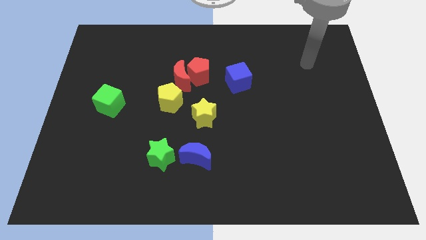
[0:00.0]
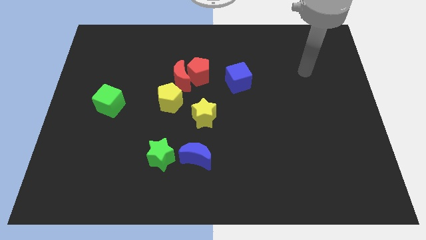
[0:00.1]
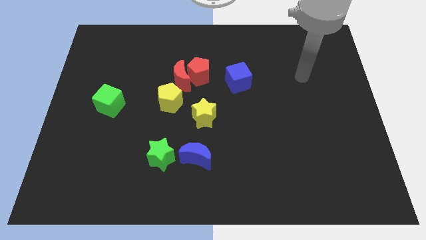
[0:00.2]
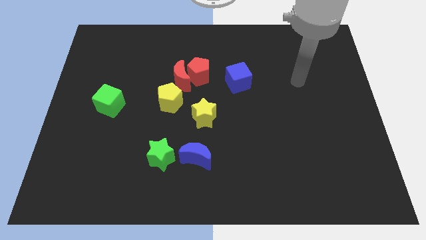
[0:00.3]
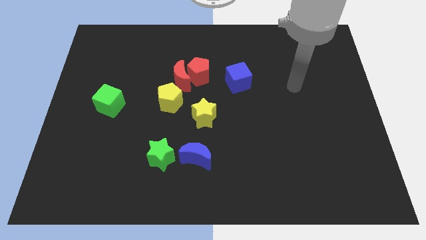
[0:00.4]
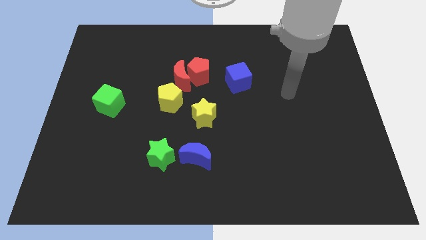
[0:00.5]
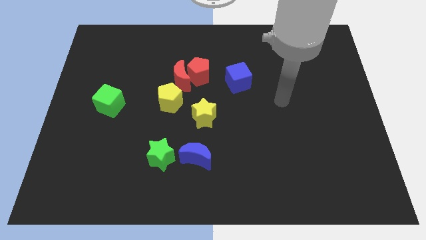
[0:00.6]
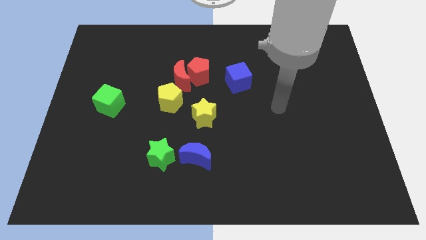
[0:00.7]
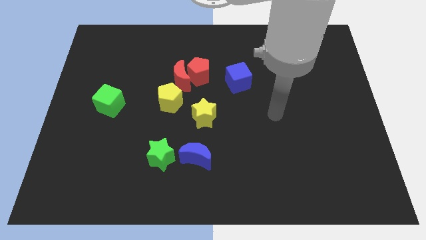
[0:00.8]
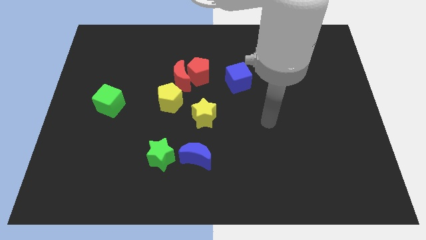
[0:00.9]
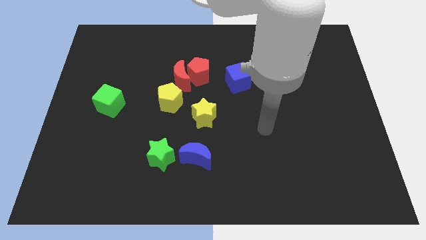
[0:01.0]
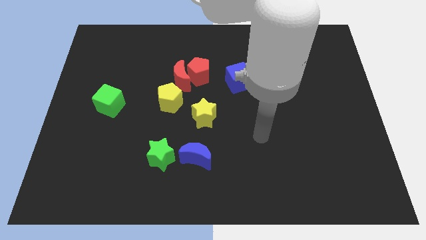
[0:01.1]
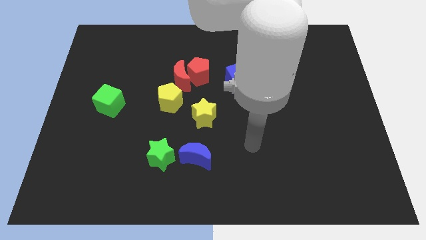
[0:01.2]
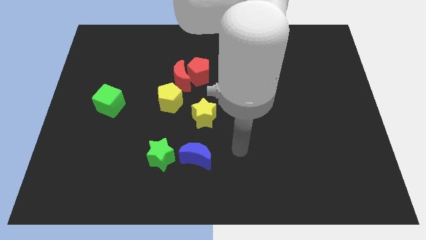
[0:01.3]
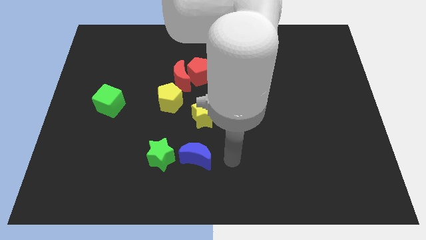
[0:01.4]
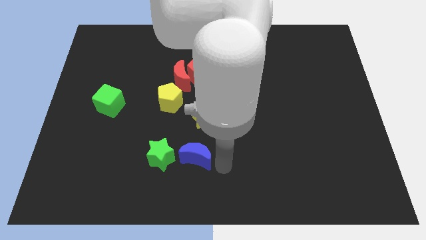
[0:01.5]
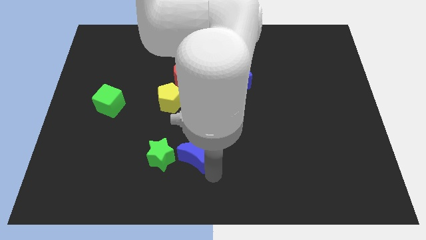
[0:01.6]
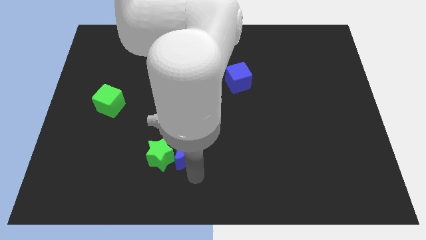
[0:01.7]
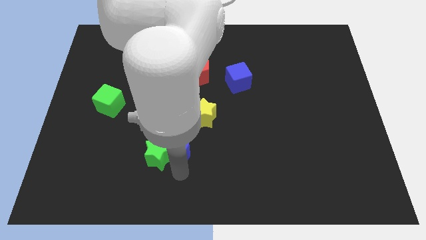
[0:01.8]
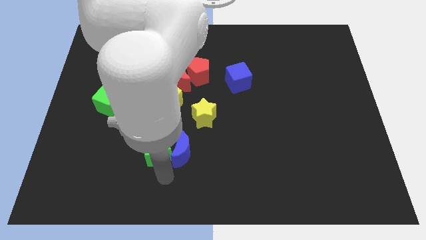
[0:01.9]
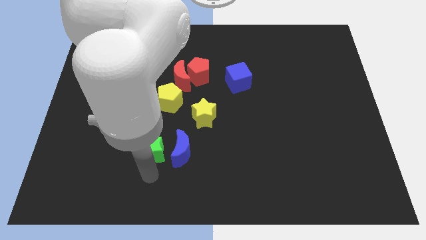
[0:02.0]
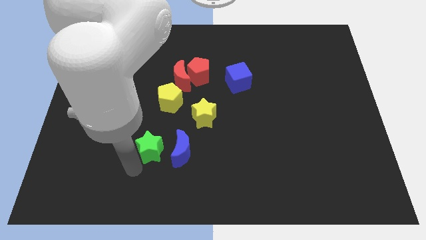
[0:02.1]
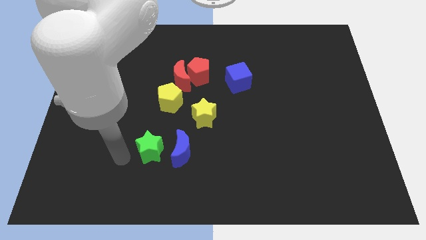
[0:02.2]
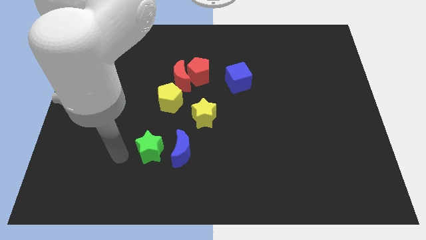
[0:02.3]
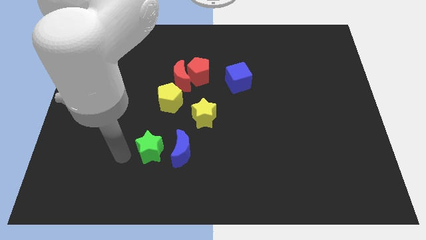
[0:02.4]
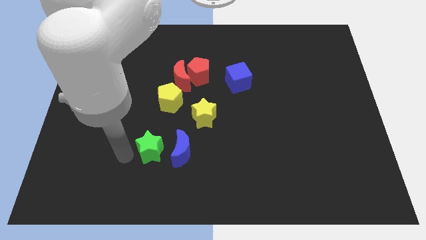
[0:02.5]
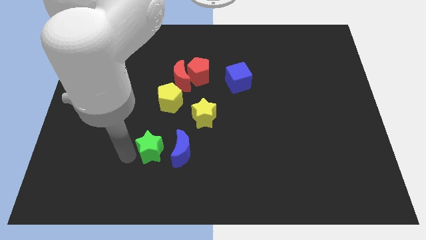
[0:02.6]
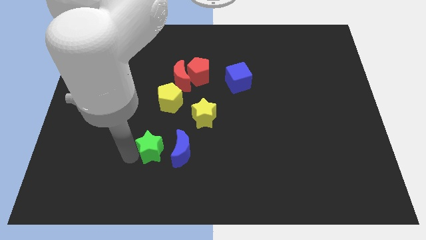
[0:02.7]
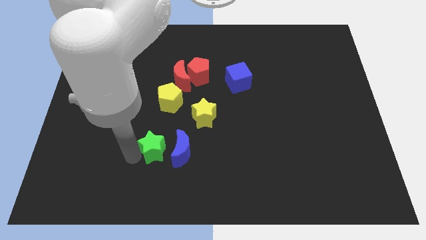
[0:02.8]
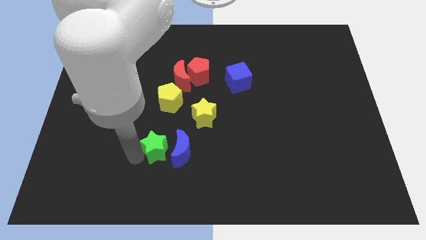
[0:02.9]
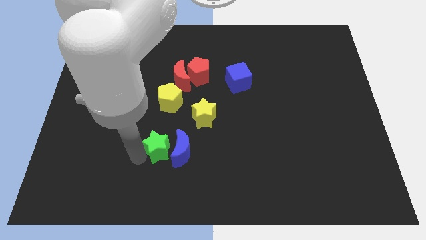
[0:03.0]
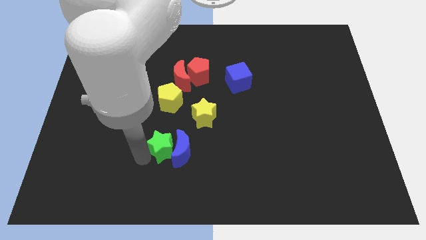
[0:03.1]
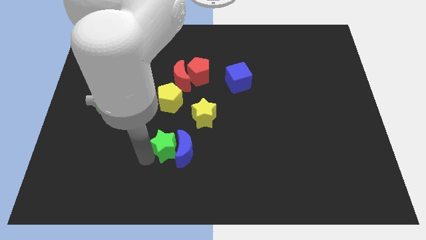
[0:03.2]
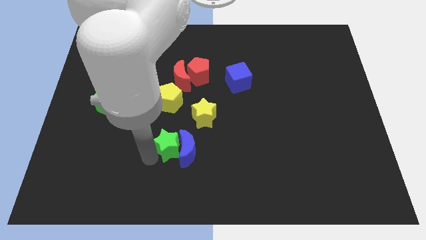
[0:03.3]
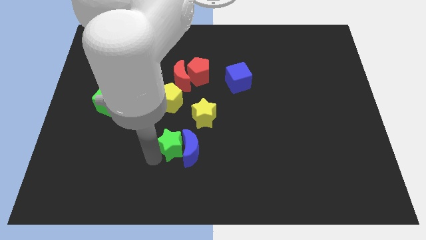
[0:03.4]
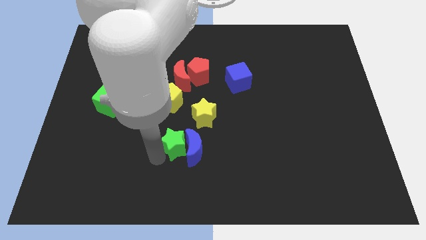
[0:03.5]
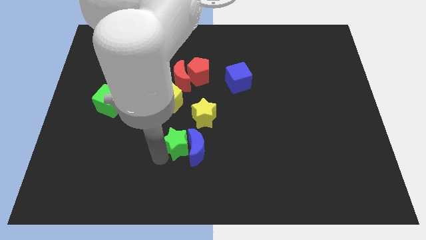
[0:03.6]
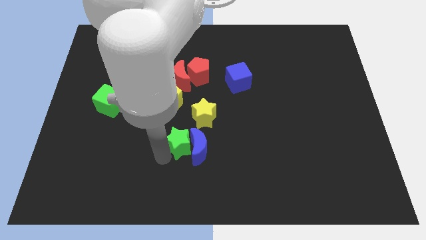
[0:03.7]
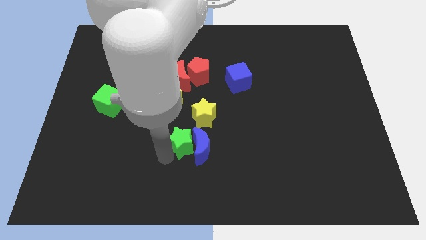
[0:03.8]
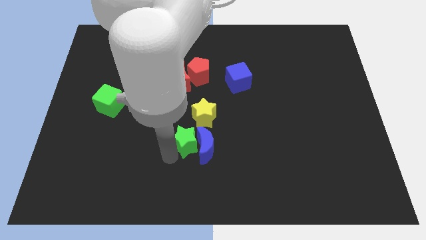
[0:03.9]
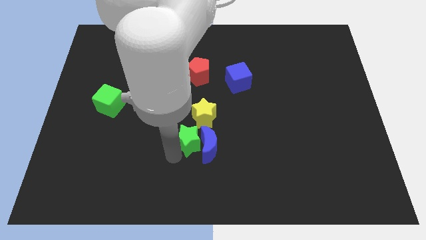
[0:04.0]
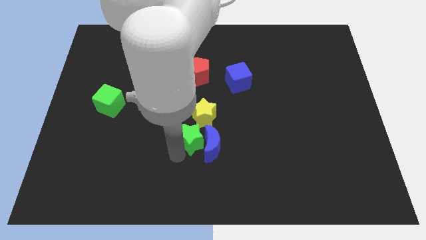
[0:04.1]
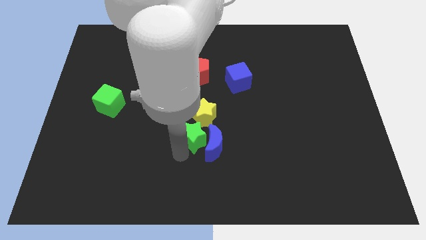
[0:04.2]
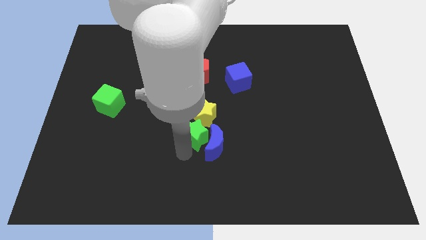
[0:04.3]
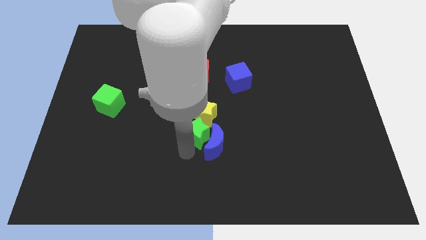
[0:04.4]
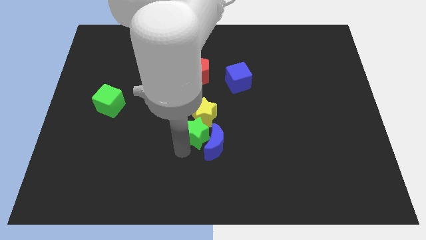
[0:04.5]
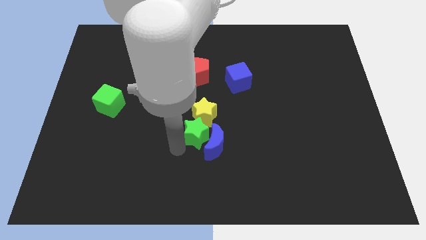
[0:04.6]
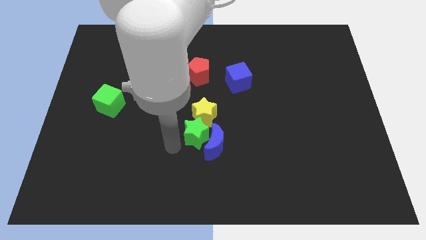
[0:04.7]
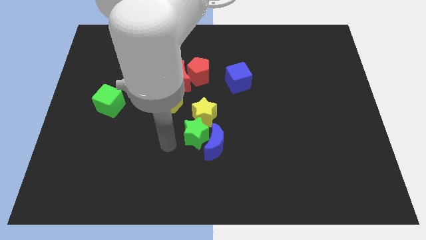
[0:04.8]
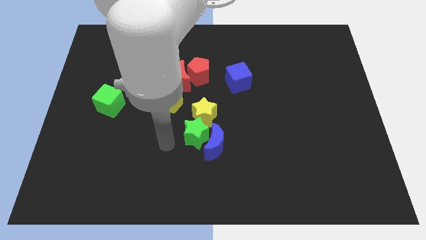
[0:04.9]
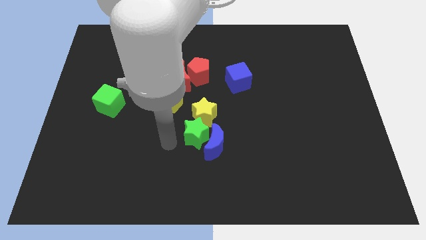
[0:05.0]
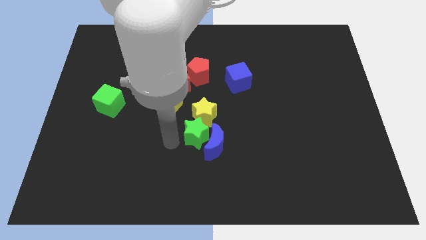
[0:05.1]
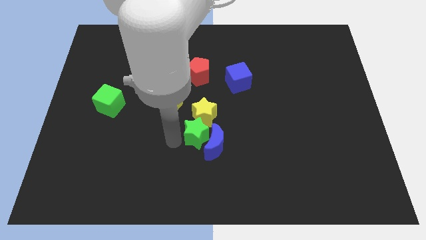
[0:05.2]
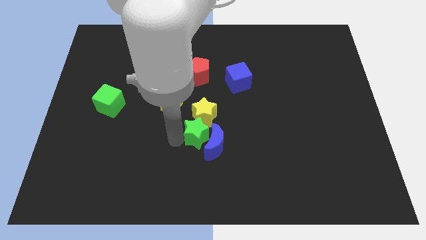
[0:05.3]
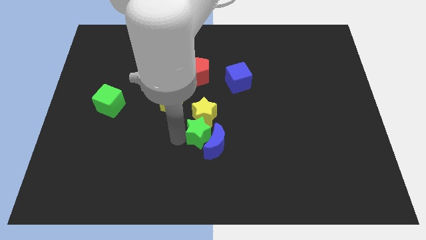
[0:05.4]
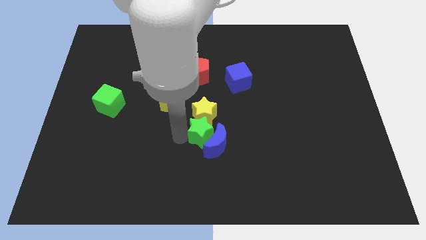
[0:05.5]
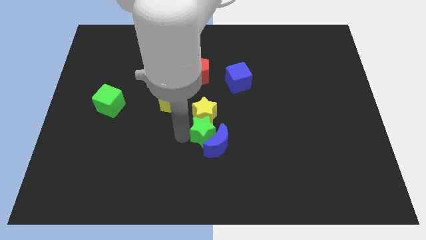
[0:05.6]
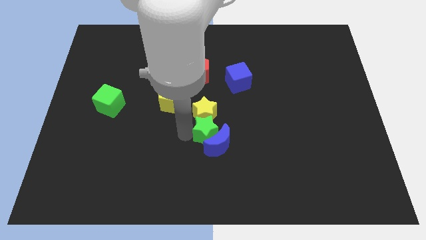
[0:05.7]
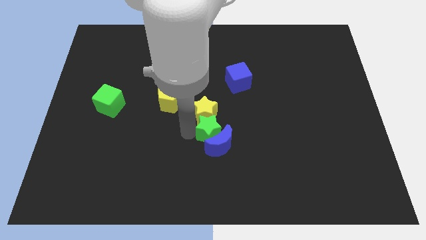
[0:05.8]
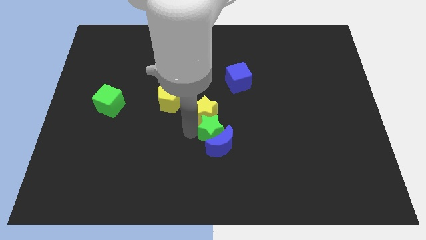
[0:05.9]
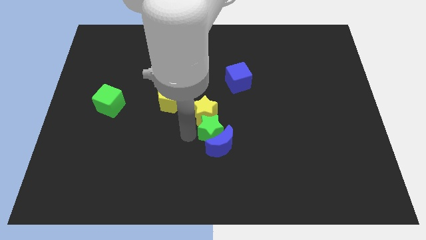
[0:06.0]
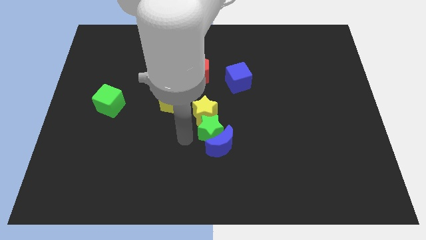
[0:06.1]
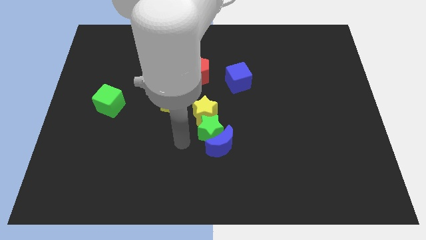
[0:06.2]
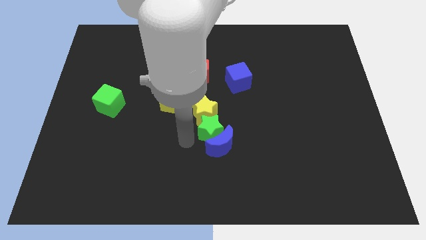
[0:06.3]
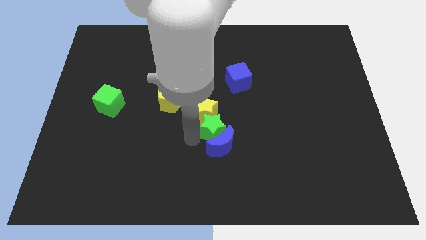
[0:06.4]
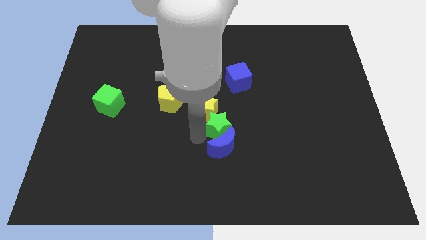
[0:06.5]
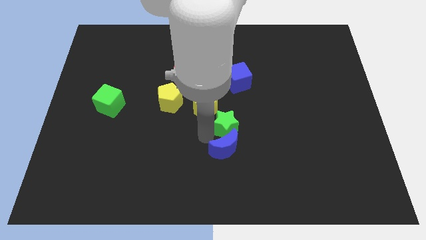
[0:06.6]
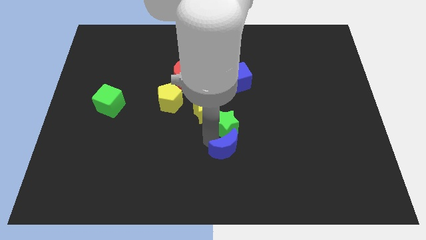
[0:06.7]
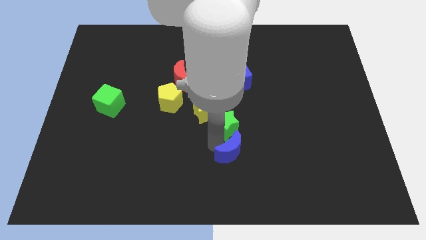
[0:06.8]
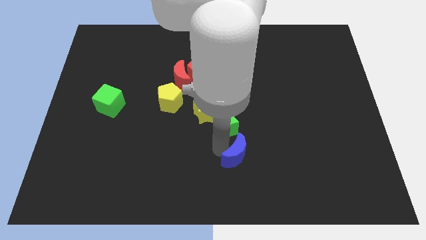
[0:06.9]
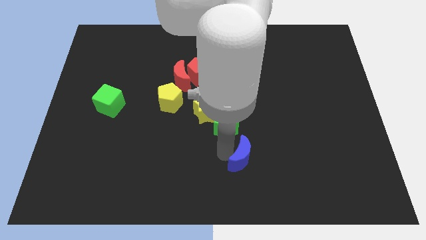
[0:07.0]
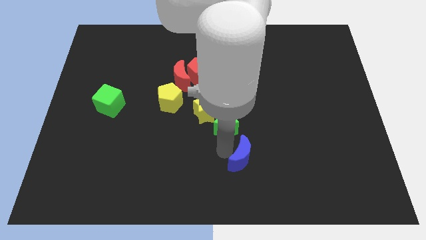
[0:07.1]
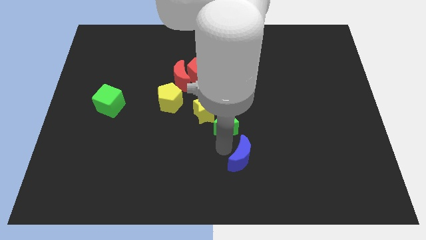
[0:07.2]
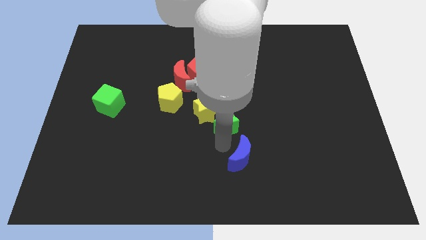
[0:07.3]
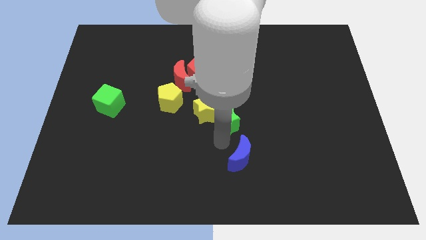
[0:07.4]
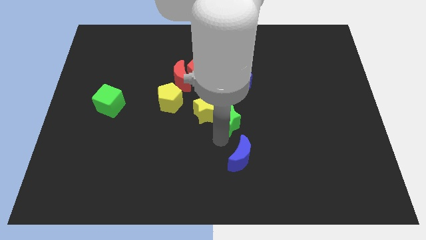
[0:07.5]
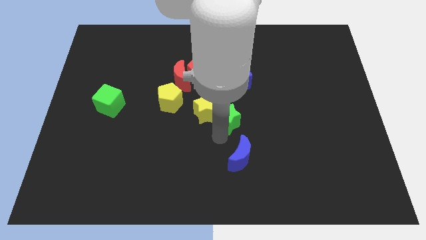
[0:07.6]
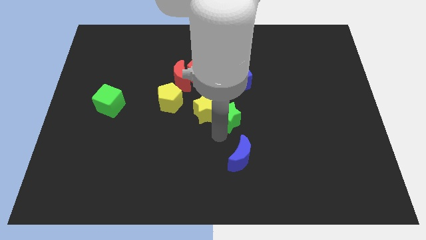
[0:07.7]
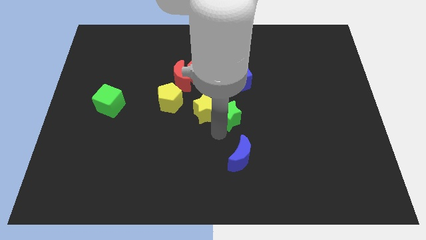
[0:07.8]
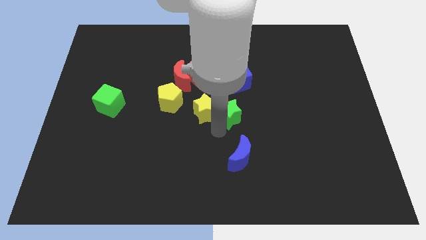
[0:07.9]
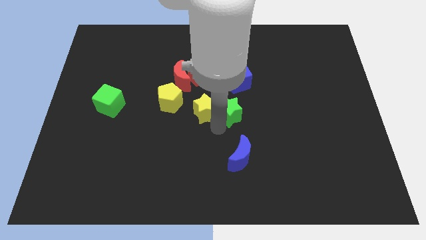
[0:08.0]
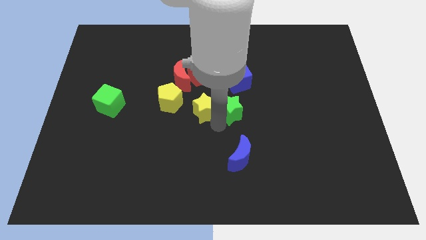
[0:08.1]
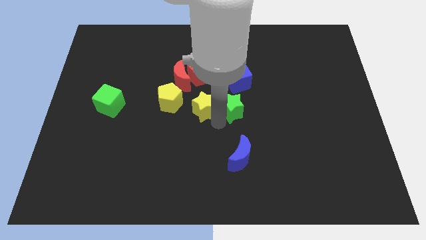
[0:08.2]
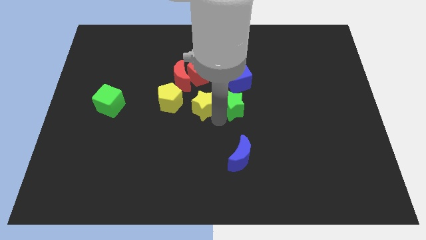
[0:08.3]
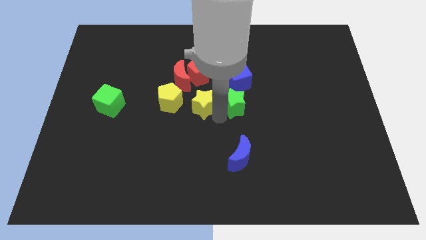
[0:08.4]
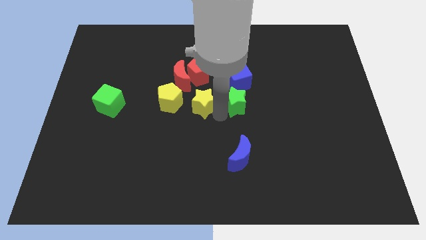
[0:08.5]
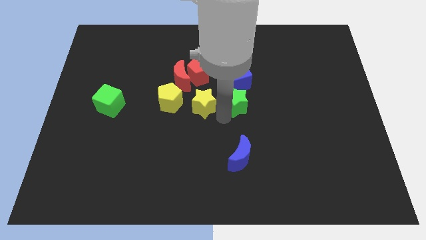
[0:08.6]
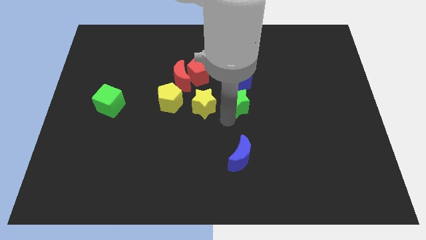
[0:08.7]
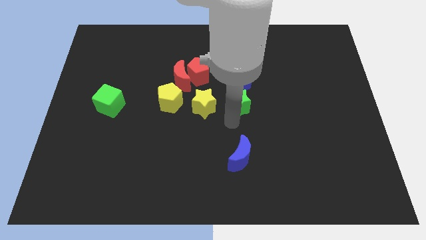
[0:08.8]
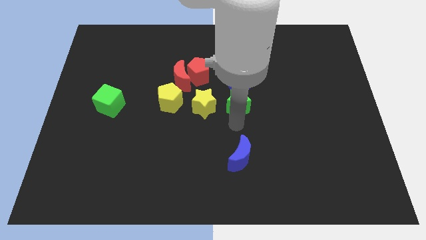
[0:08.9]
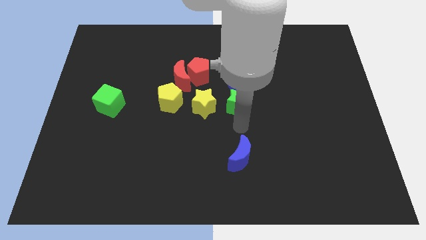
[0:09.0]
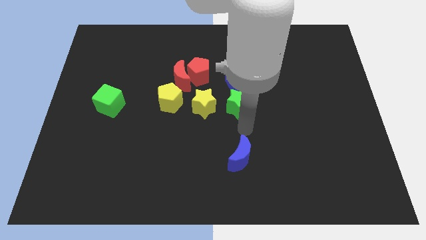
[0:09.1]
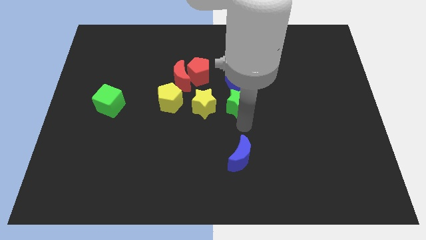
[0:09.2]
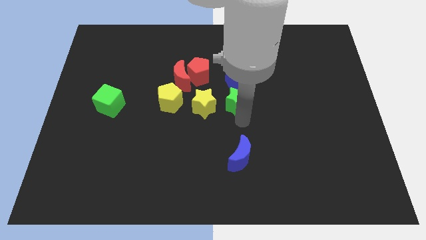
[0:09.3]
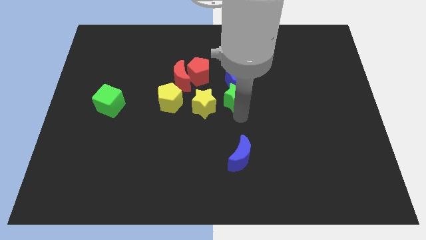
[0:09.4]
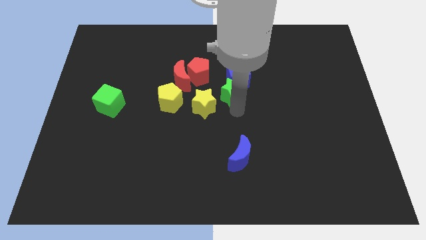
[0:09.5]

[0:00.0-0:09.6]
move the green star next to the blue cube
